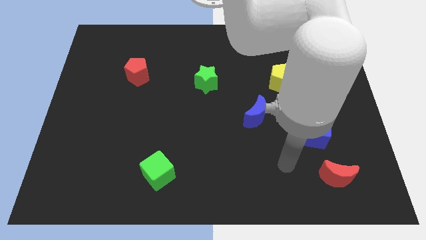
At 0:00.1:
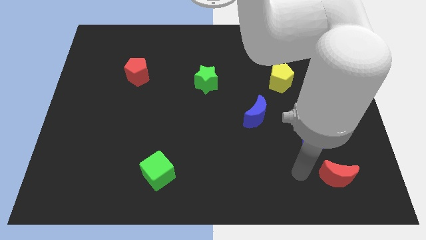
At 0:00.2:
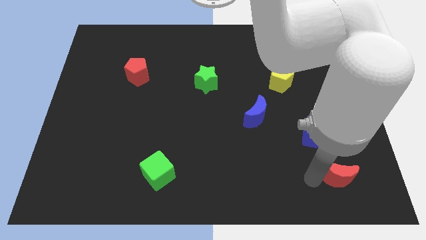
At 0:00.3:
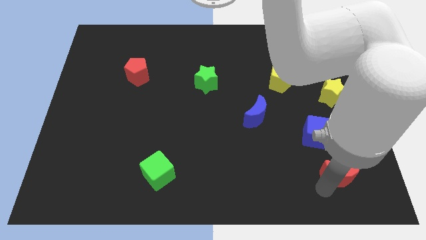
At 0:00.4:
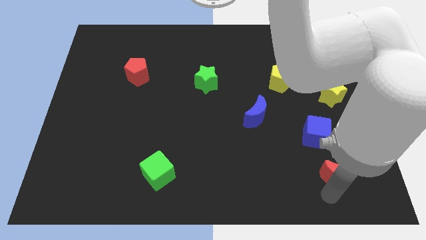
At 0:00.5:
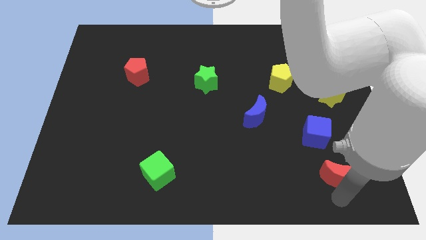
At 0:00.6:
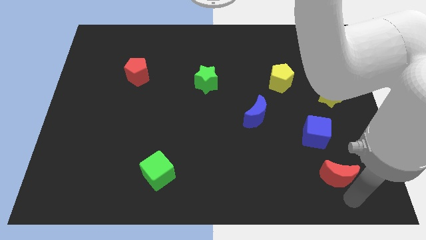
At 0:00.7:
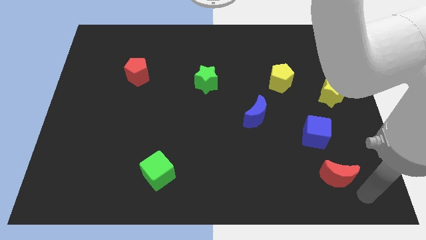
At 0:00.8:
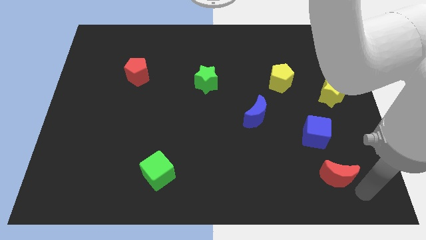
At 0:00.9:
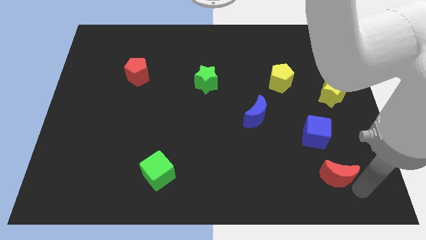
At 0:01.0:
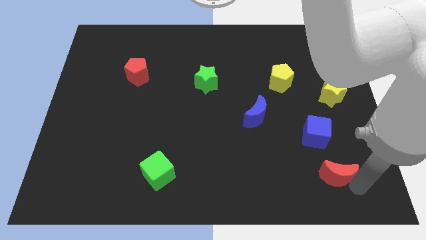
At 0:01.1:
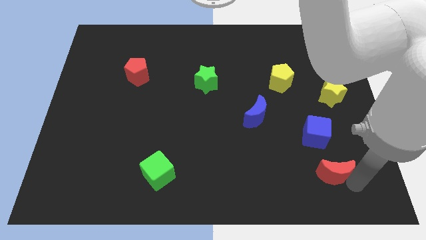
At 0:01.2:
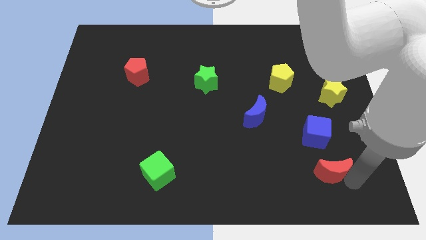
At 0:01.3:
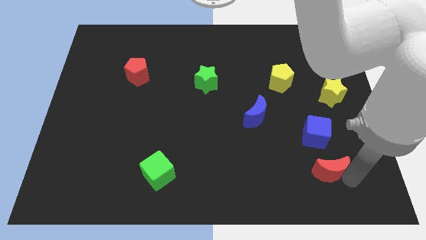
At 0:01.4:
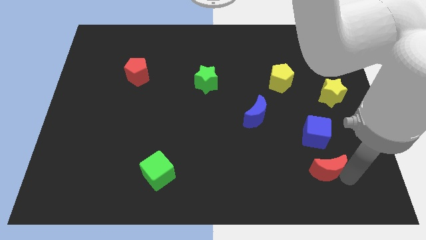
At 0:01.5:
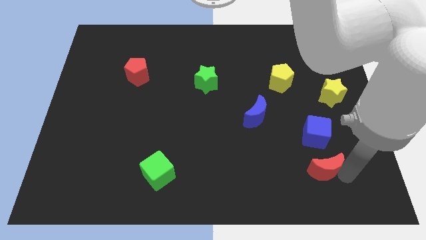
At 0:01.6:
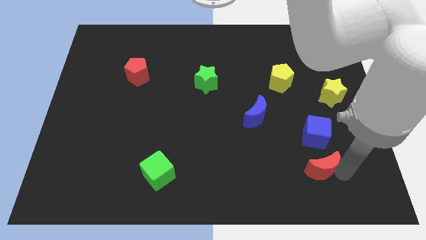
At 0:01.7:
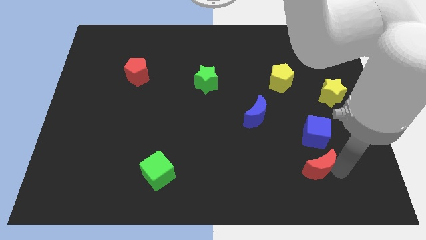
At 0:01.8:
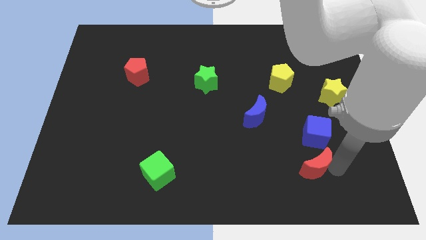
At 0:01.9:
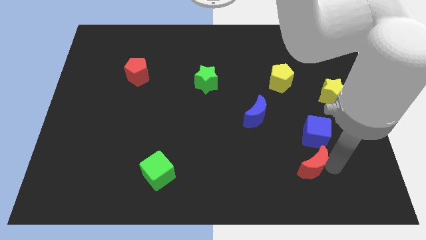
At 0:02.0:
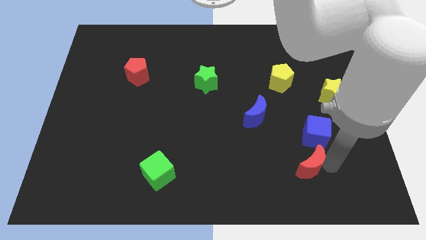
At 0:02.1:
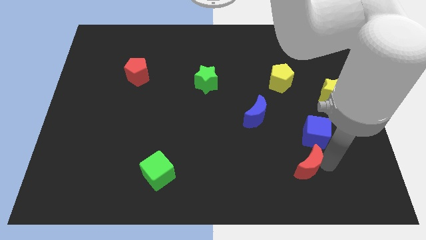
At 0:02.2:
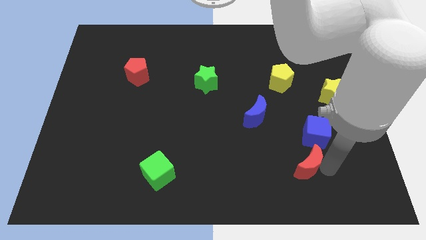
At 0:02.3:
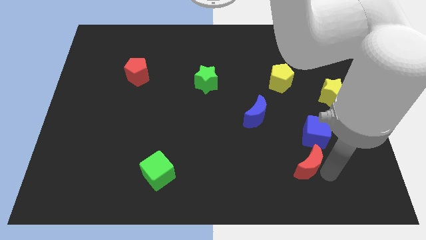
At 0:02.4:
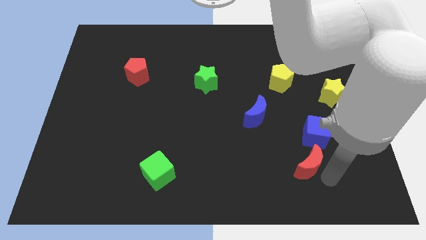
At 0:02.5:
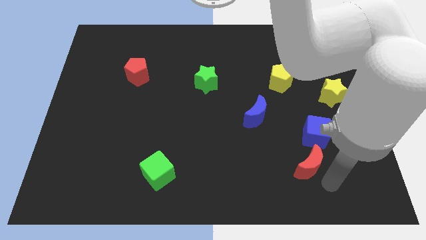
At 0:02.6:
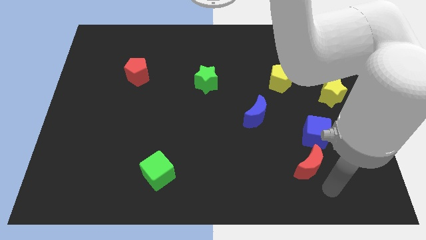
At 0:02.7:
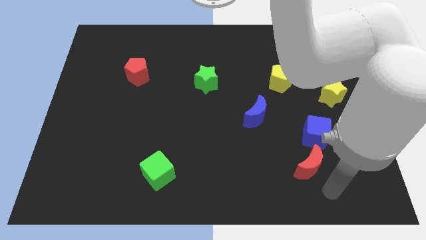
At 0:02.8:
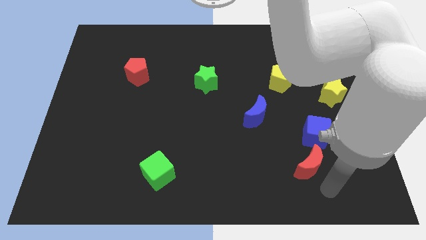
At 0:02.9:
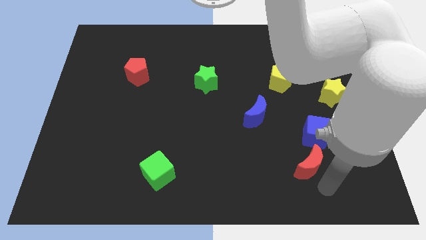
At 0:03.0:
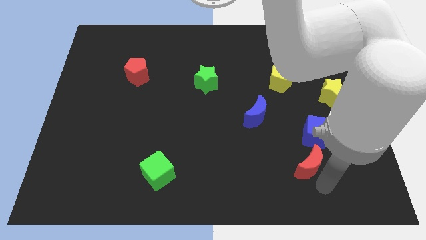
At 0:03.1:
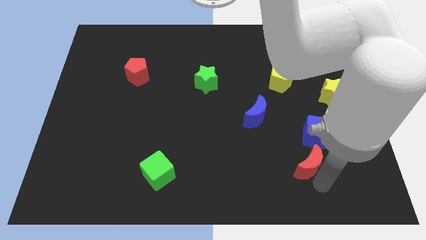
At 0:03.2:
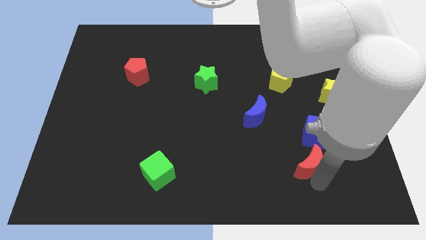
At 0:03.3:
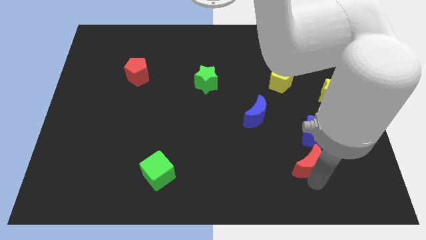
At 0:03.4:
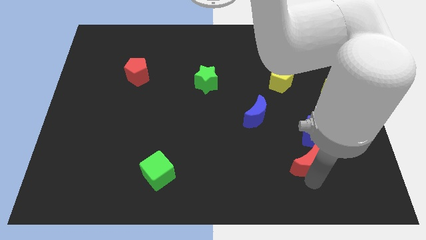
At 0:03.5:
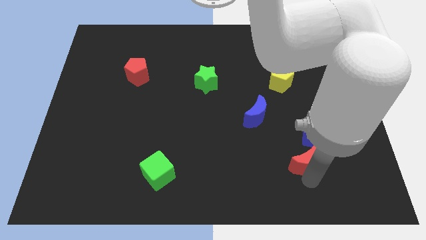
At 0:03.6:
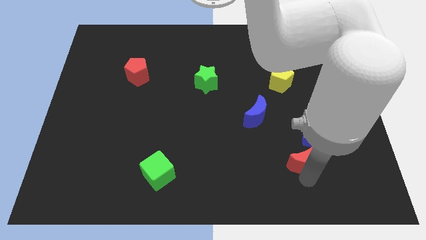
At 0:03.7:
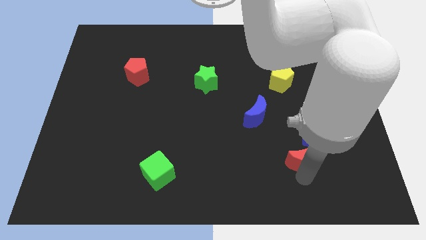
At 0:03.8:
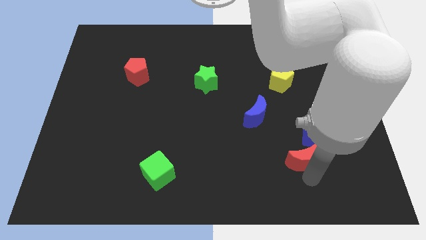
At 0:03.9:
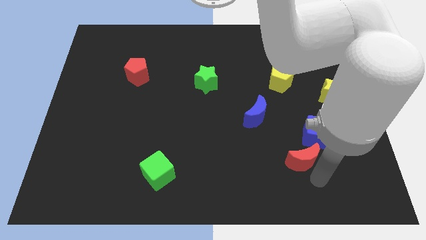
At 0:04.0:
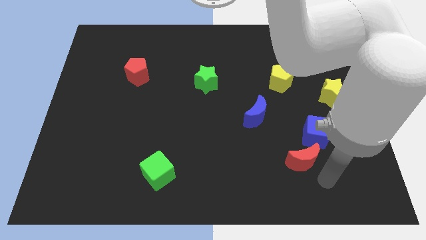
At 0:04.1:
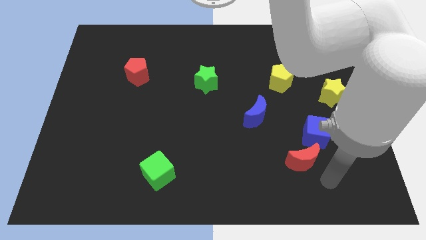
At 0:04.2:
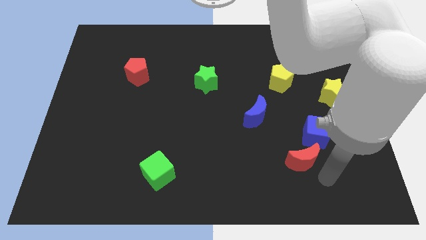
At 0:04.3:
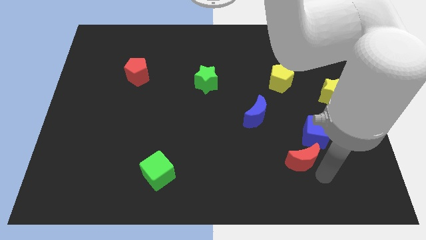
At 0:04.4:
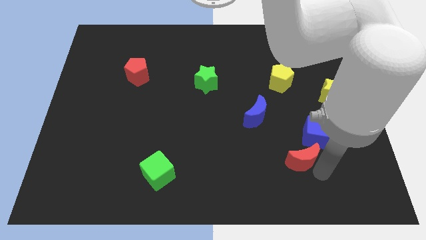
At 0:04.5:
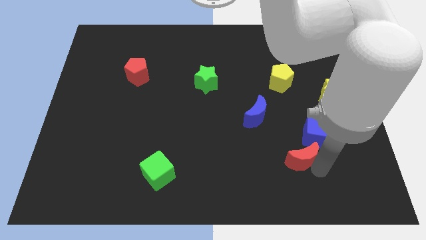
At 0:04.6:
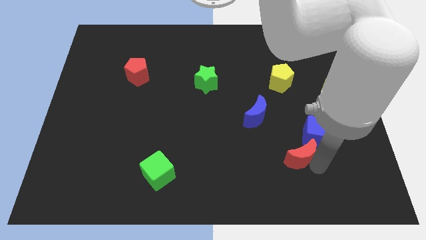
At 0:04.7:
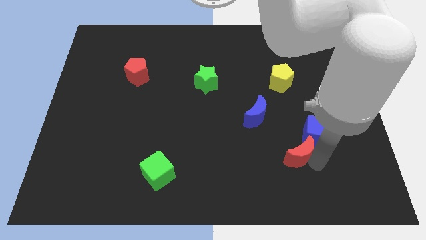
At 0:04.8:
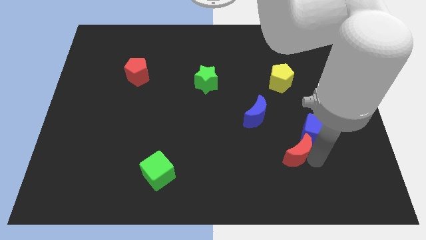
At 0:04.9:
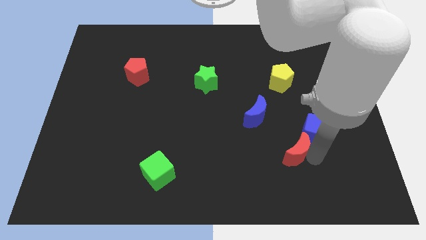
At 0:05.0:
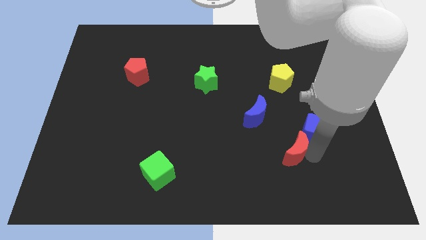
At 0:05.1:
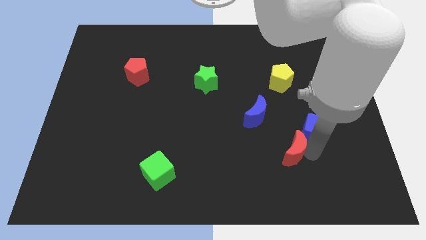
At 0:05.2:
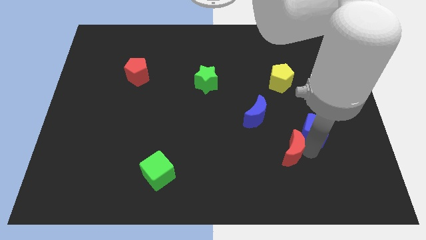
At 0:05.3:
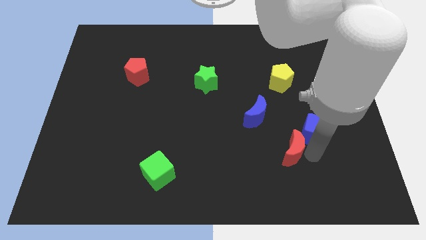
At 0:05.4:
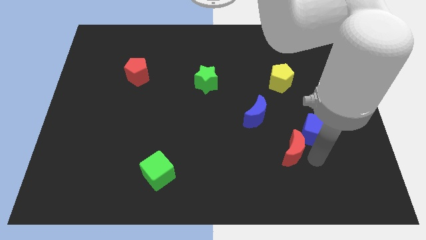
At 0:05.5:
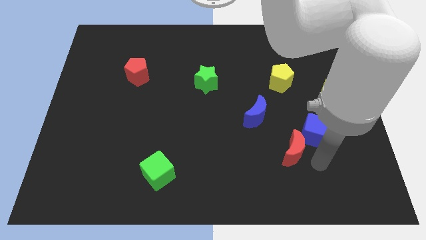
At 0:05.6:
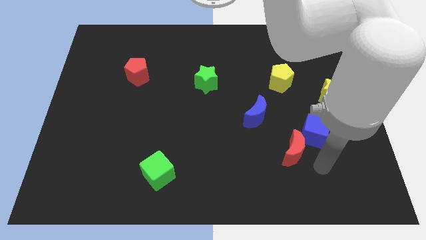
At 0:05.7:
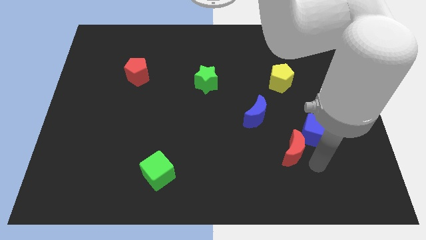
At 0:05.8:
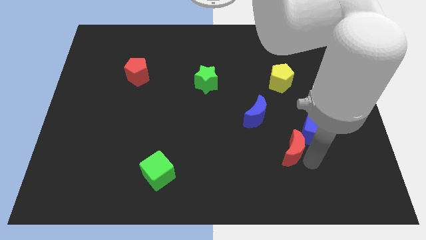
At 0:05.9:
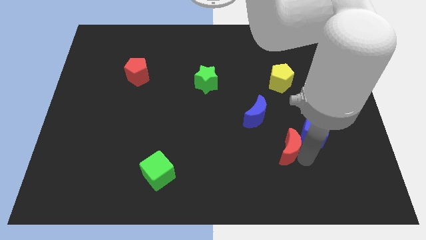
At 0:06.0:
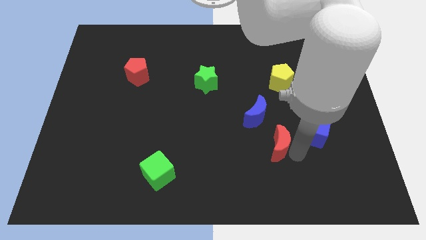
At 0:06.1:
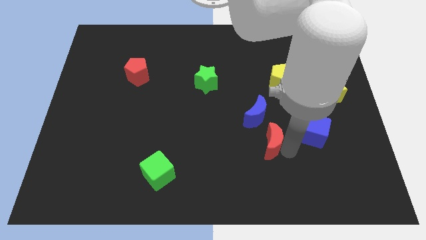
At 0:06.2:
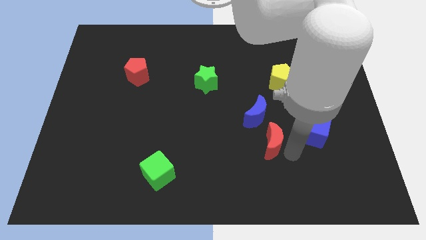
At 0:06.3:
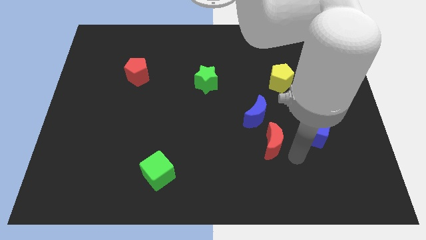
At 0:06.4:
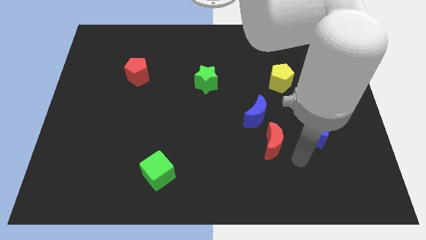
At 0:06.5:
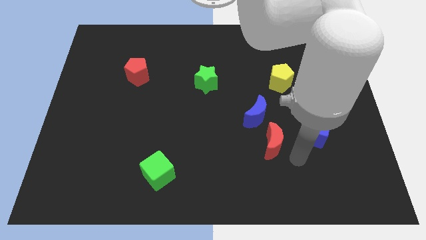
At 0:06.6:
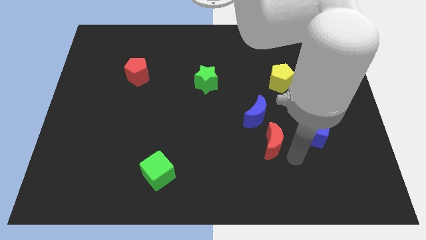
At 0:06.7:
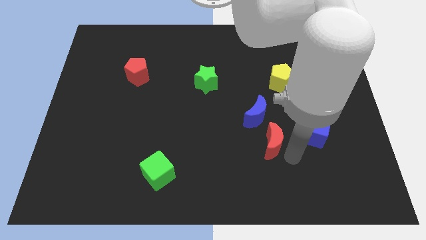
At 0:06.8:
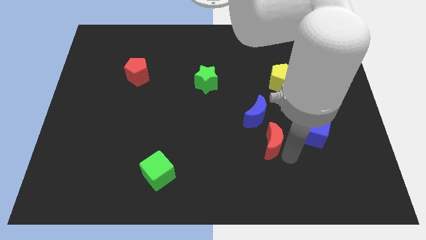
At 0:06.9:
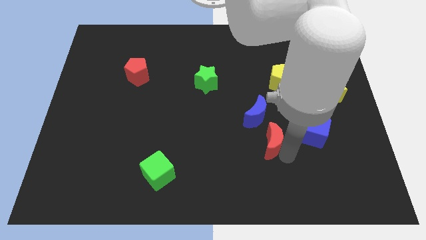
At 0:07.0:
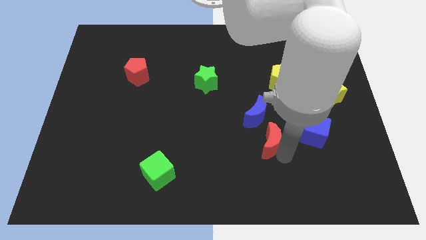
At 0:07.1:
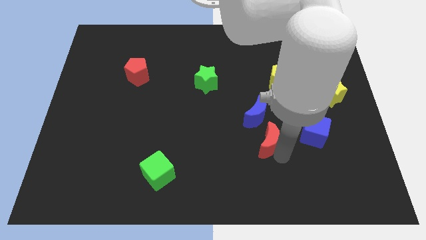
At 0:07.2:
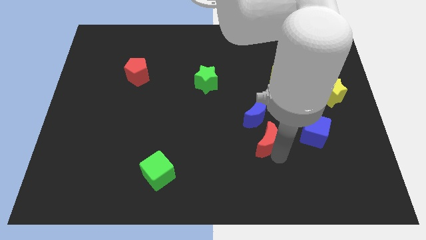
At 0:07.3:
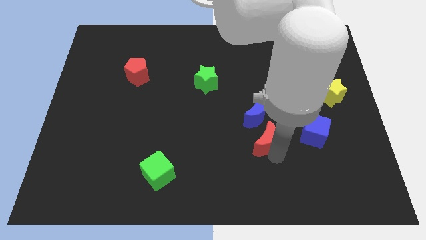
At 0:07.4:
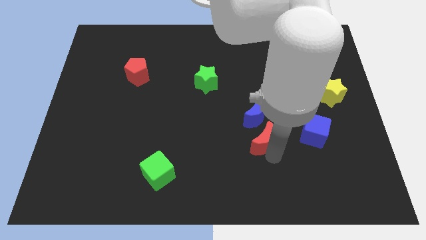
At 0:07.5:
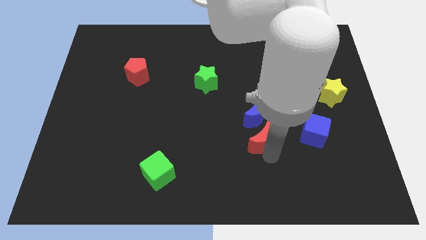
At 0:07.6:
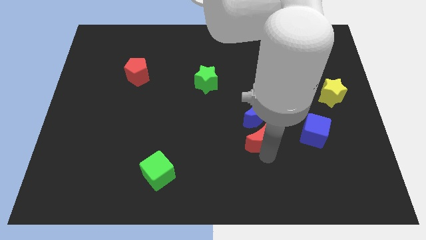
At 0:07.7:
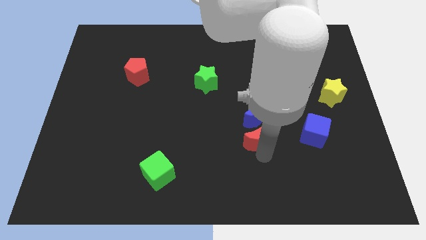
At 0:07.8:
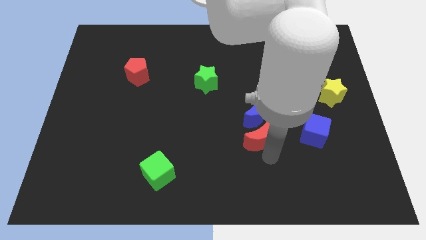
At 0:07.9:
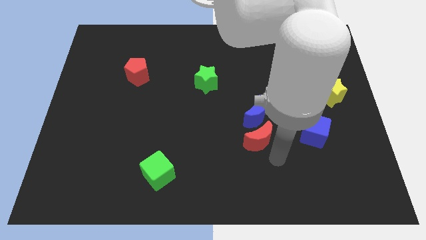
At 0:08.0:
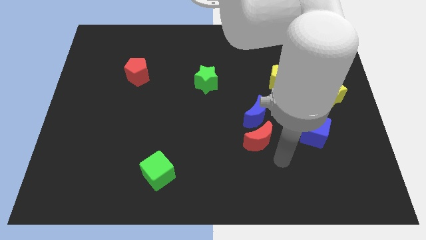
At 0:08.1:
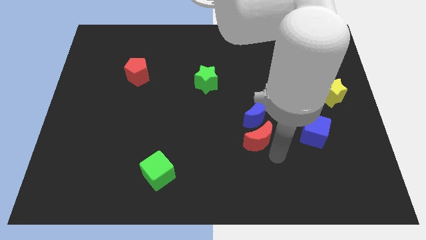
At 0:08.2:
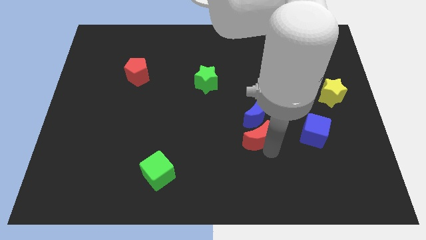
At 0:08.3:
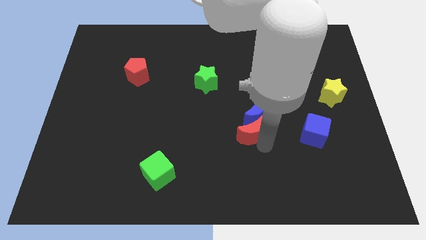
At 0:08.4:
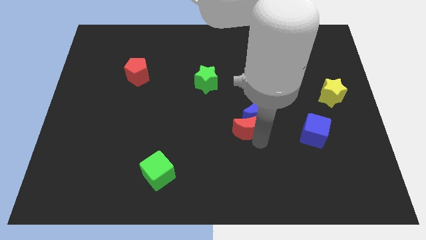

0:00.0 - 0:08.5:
move the red moon up and left
